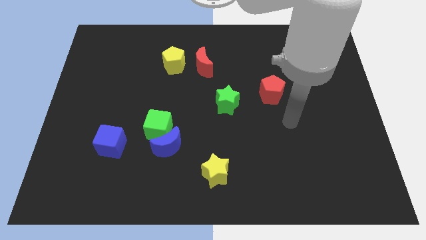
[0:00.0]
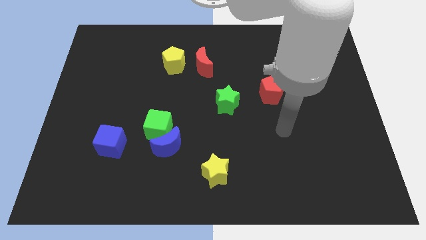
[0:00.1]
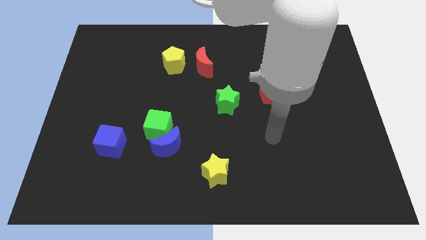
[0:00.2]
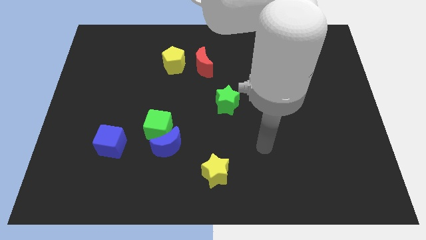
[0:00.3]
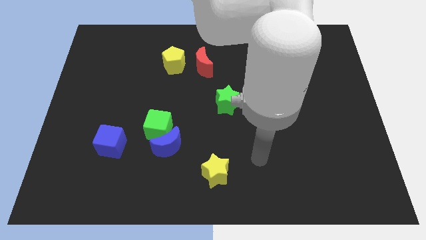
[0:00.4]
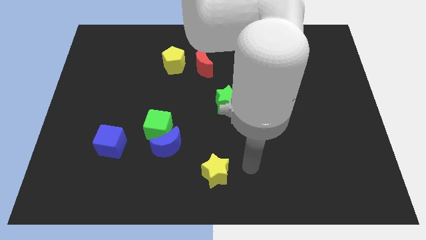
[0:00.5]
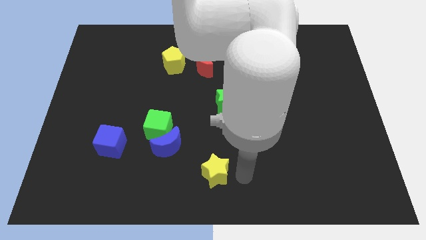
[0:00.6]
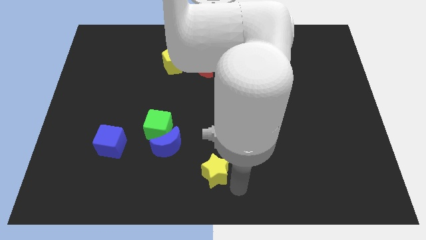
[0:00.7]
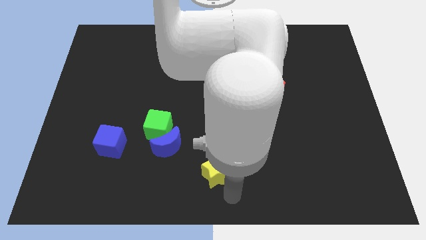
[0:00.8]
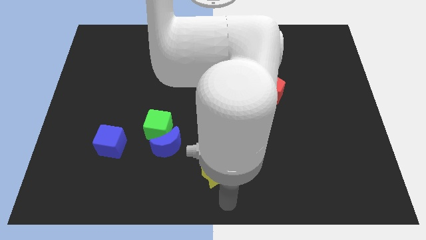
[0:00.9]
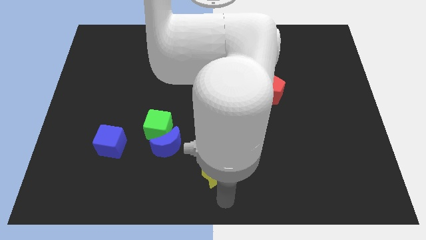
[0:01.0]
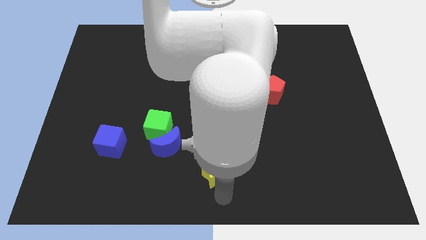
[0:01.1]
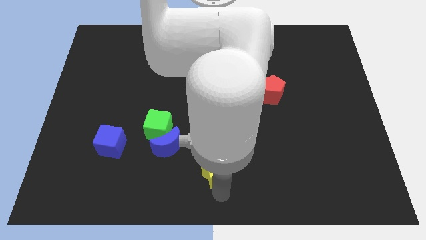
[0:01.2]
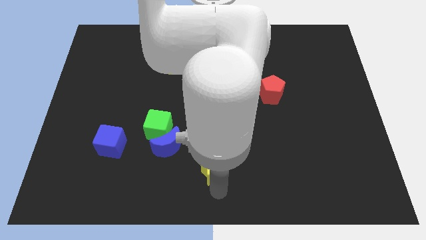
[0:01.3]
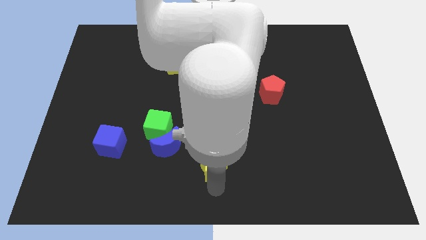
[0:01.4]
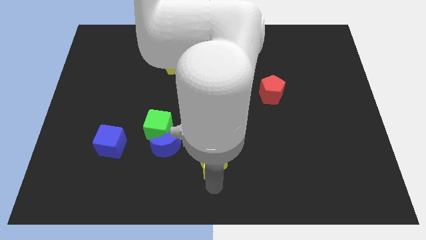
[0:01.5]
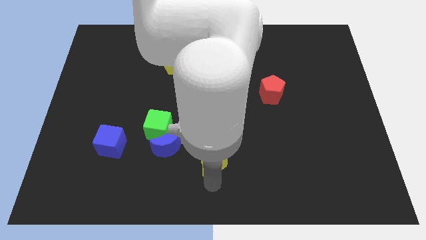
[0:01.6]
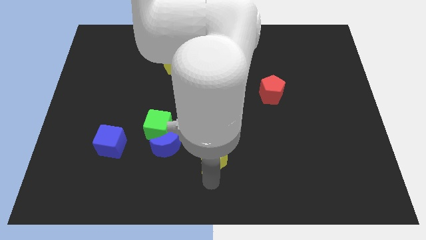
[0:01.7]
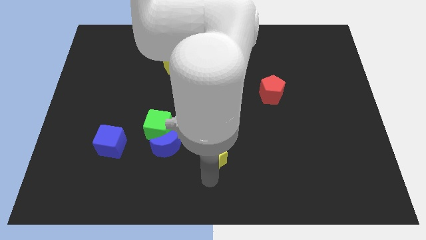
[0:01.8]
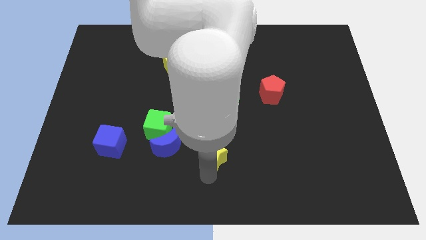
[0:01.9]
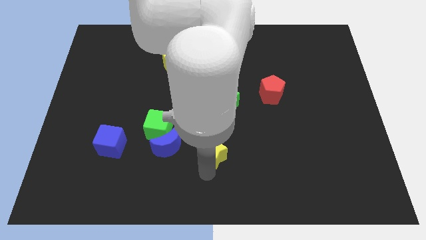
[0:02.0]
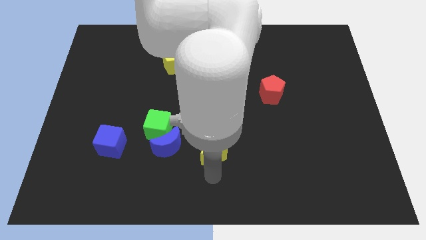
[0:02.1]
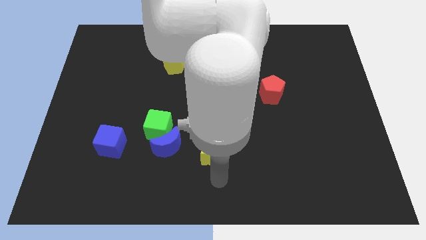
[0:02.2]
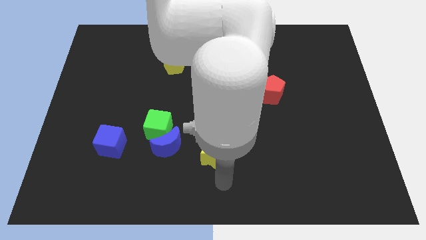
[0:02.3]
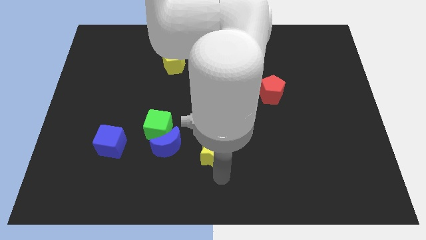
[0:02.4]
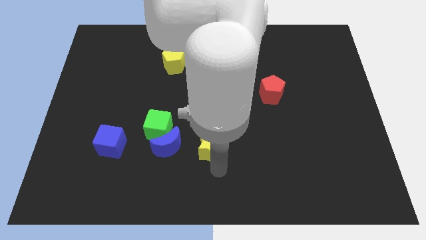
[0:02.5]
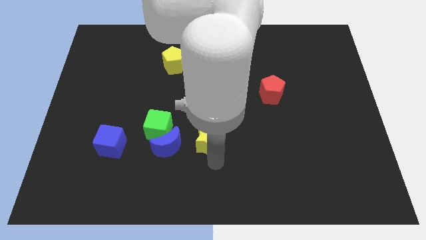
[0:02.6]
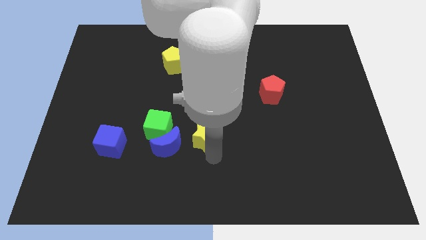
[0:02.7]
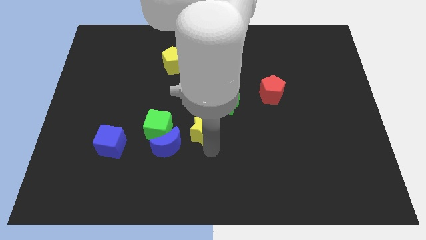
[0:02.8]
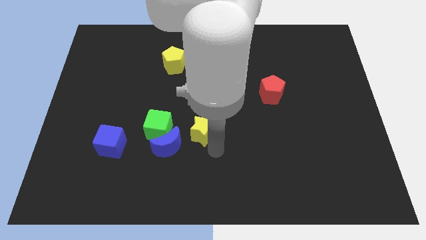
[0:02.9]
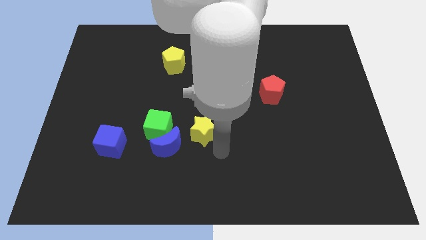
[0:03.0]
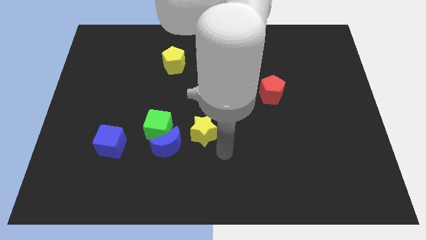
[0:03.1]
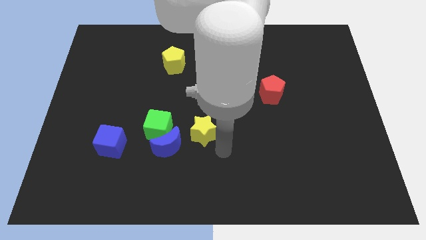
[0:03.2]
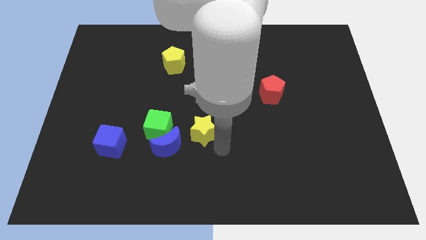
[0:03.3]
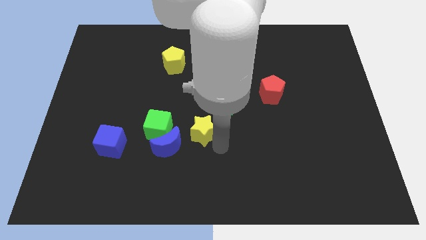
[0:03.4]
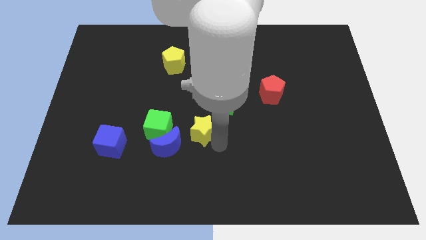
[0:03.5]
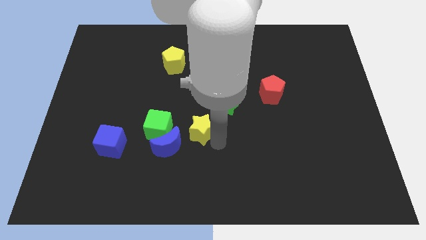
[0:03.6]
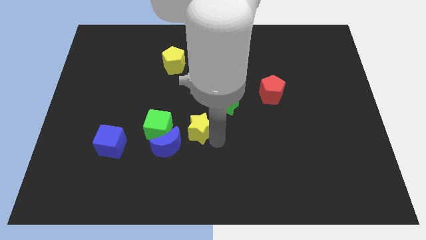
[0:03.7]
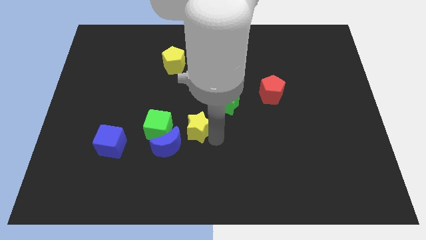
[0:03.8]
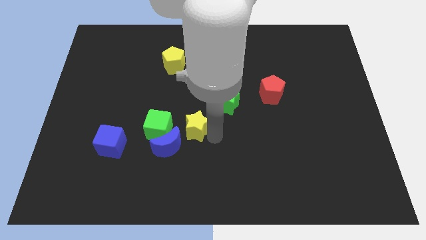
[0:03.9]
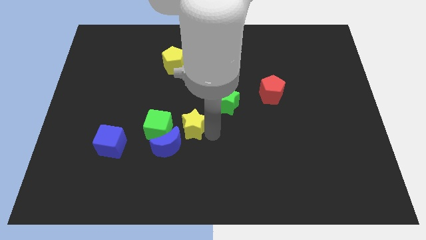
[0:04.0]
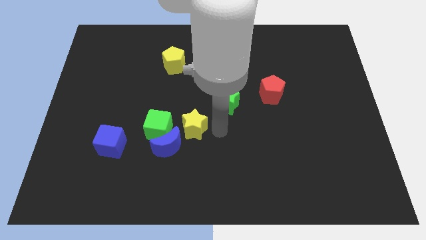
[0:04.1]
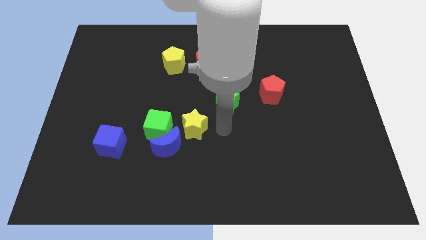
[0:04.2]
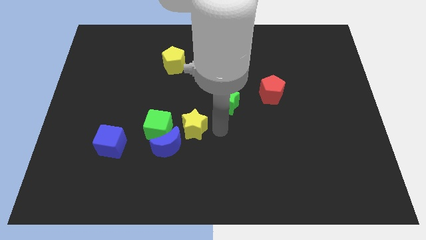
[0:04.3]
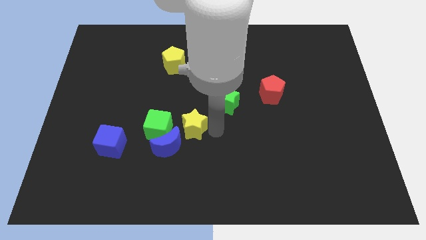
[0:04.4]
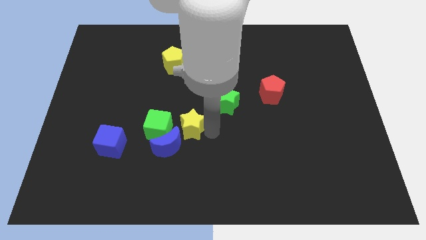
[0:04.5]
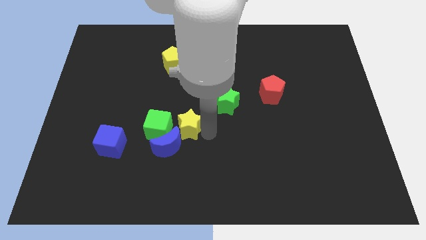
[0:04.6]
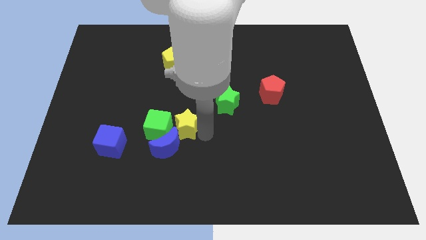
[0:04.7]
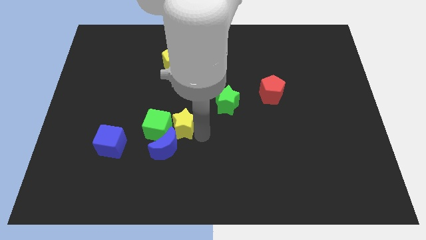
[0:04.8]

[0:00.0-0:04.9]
push the yellow star close to the green cube

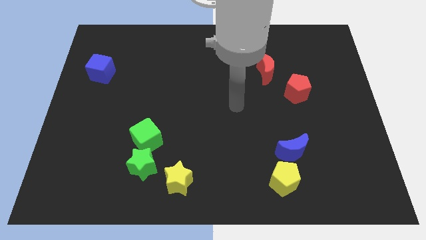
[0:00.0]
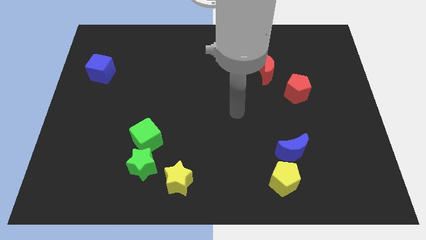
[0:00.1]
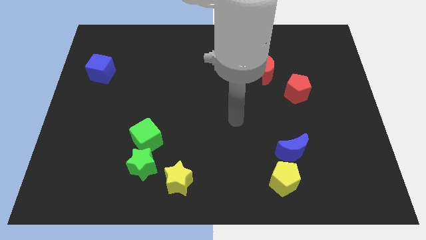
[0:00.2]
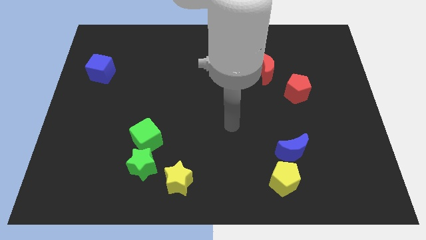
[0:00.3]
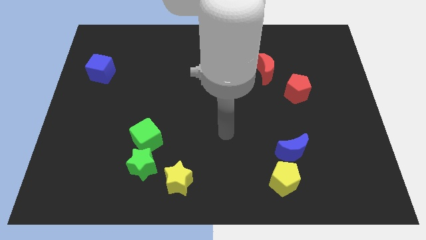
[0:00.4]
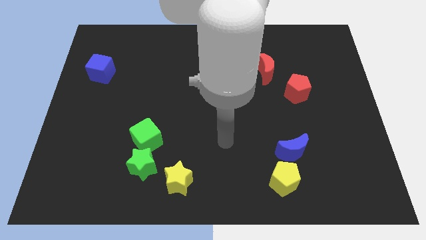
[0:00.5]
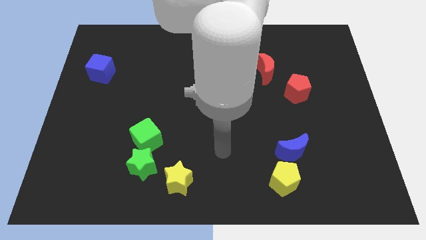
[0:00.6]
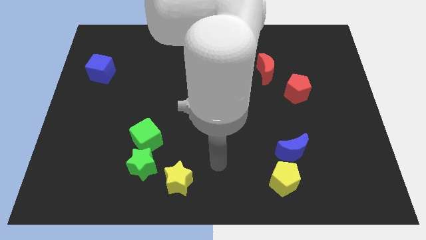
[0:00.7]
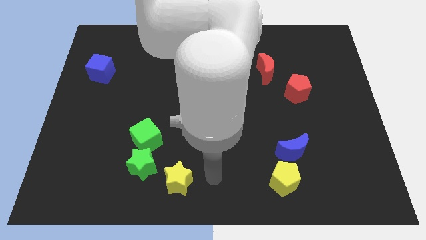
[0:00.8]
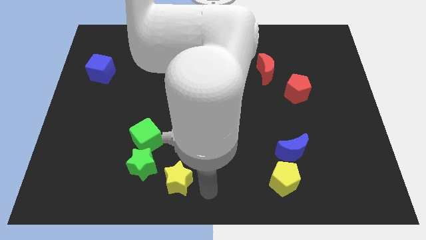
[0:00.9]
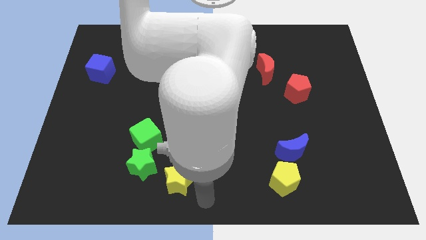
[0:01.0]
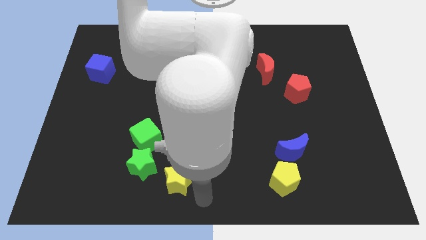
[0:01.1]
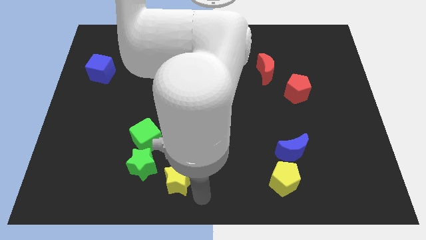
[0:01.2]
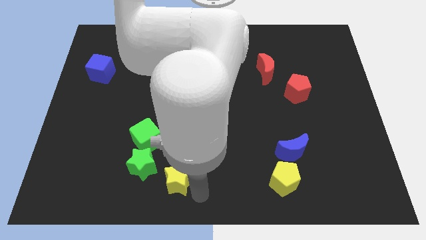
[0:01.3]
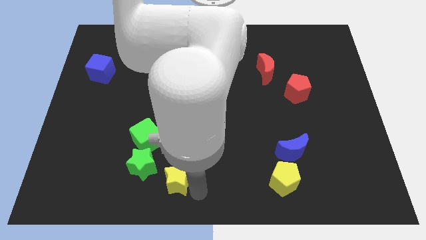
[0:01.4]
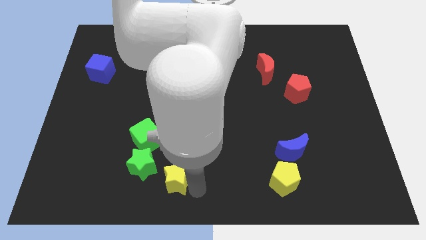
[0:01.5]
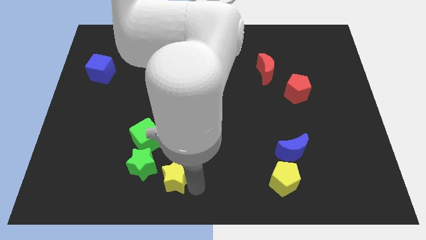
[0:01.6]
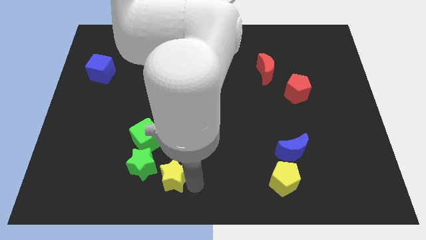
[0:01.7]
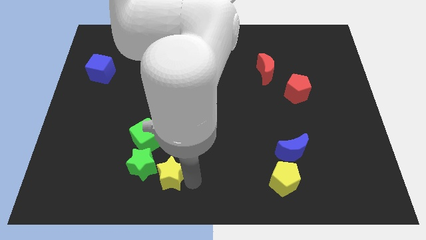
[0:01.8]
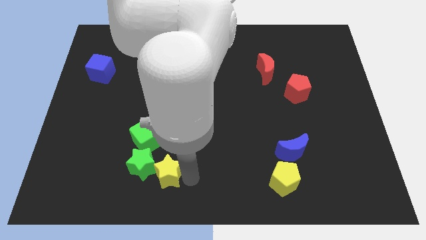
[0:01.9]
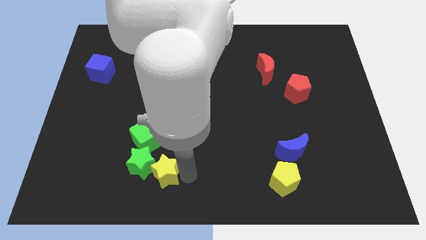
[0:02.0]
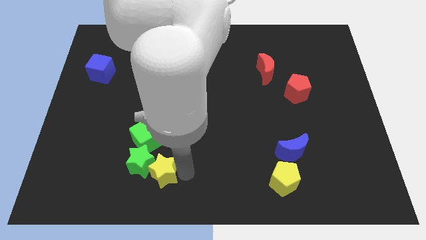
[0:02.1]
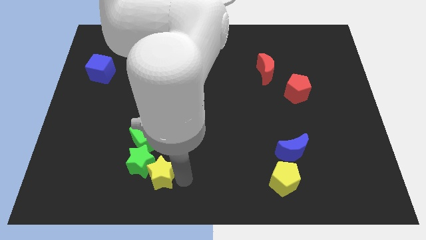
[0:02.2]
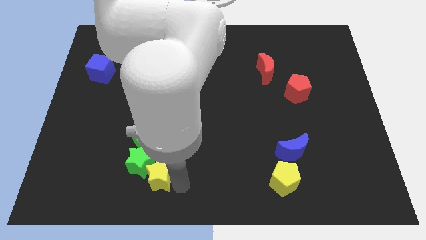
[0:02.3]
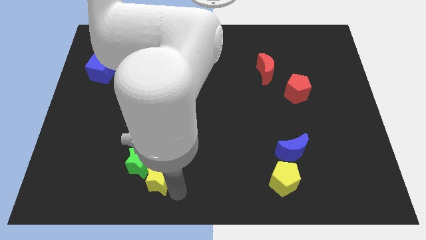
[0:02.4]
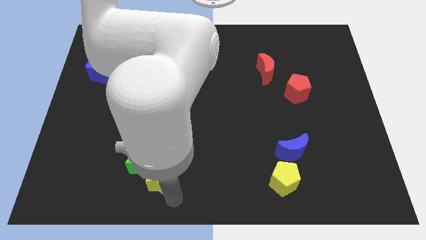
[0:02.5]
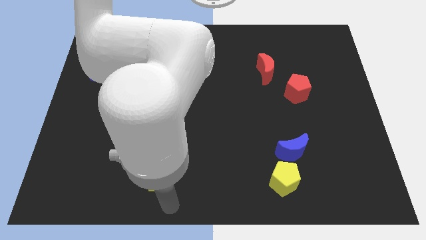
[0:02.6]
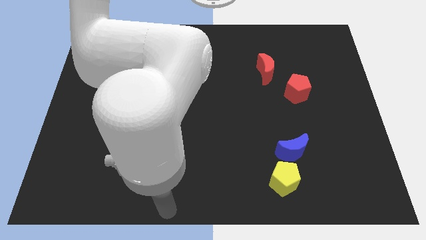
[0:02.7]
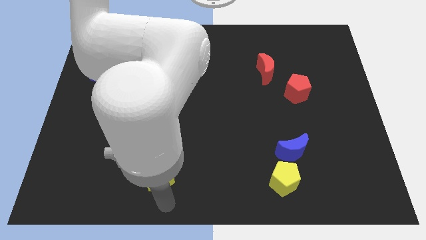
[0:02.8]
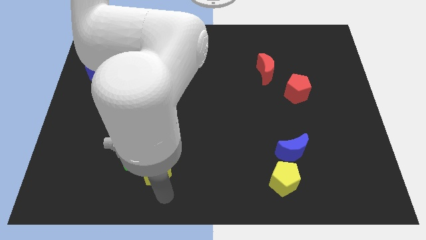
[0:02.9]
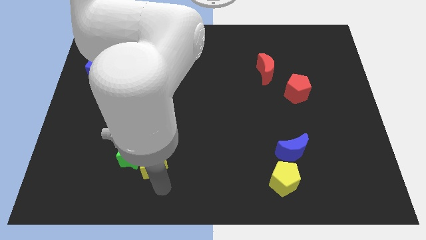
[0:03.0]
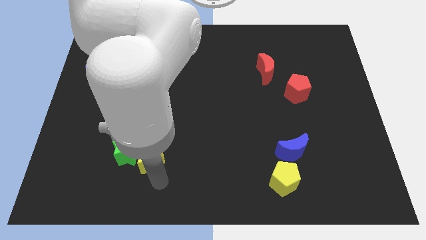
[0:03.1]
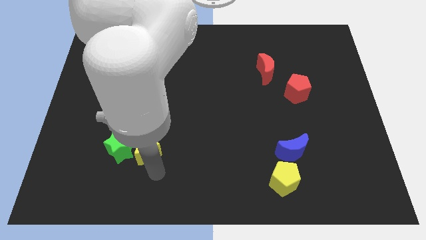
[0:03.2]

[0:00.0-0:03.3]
put the yellow star towards the green cube
